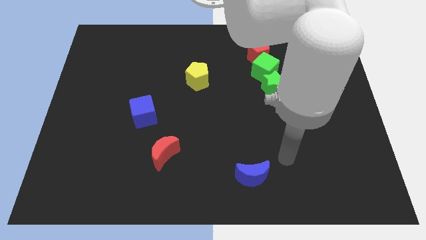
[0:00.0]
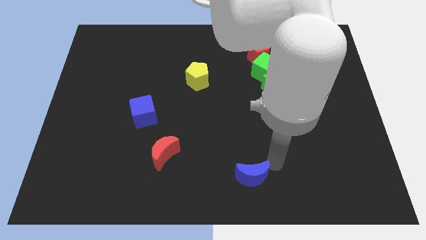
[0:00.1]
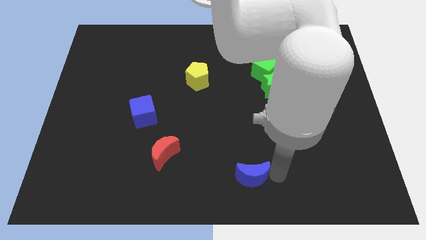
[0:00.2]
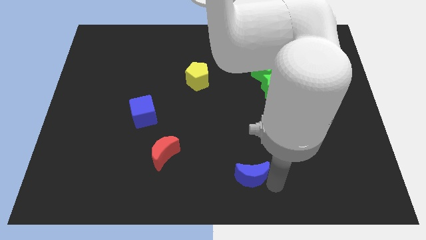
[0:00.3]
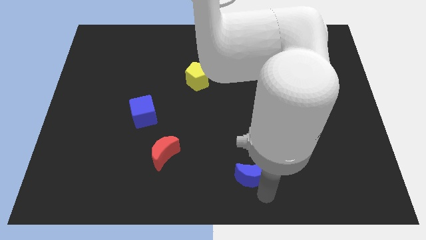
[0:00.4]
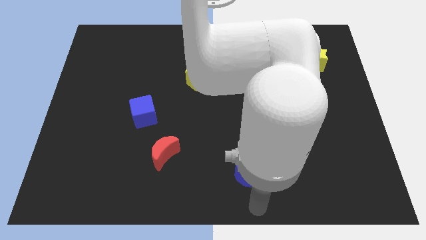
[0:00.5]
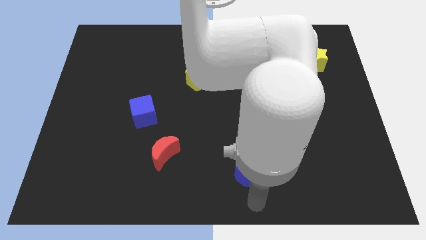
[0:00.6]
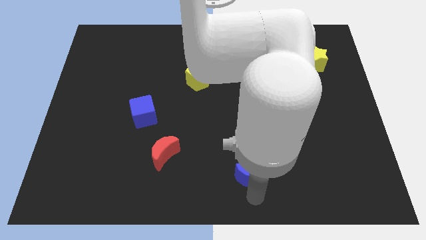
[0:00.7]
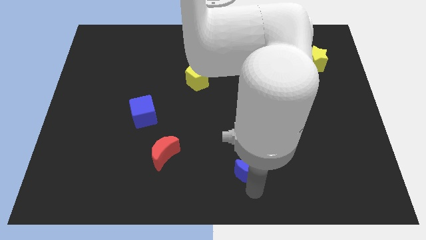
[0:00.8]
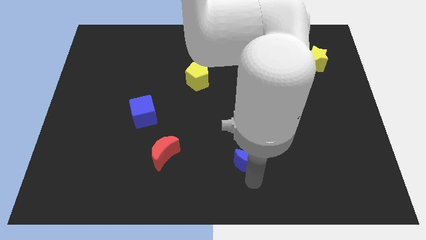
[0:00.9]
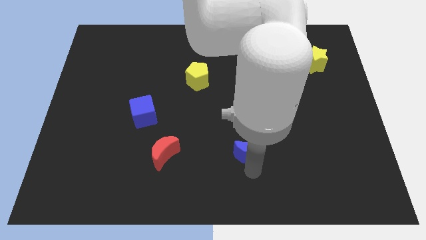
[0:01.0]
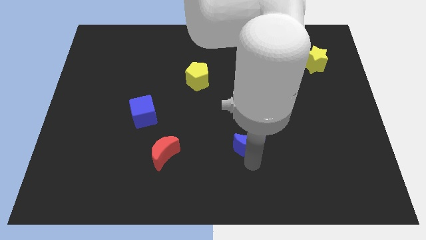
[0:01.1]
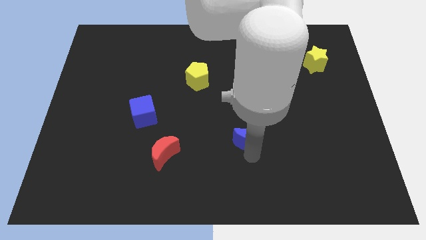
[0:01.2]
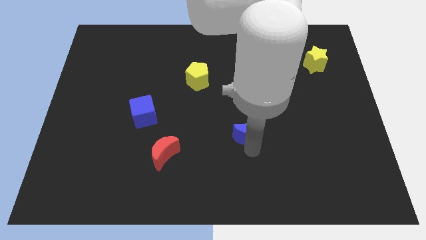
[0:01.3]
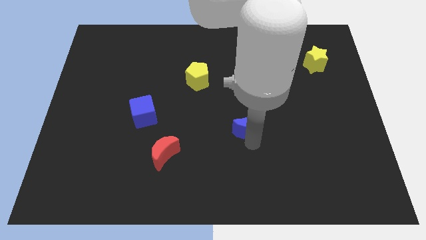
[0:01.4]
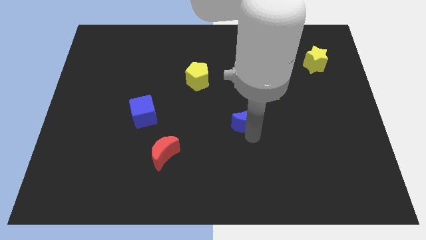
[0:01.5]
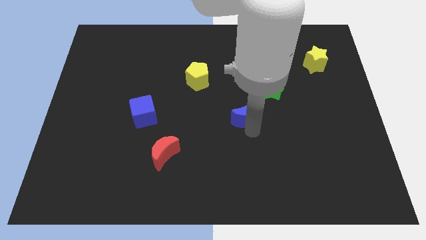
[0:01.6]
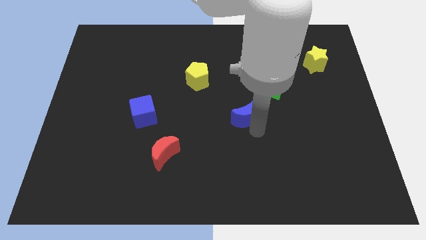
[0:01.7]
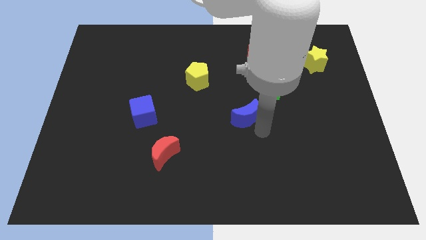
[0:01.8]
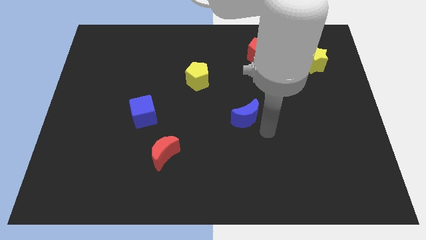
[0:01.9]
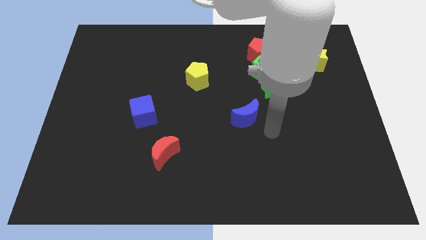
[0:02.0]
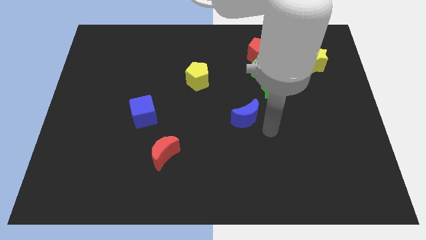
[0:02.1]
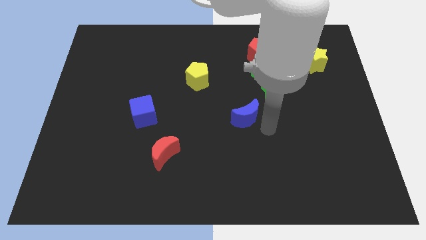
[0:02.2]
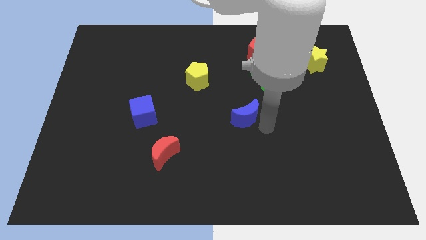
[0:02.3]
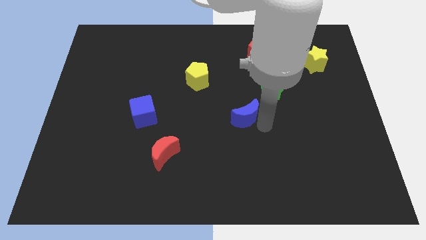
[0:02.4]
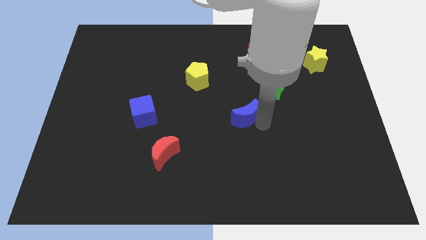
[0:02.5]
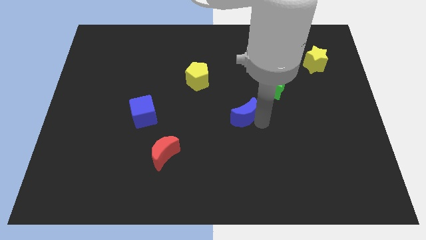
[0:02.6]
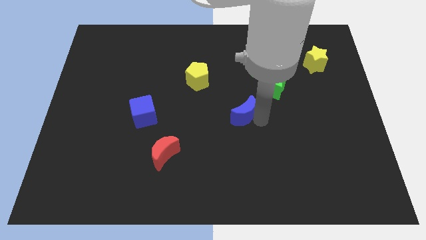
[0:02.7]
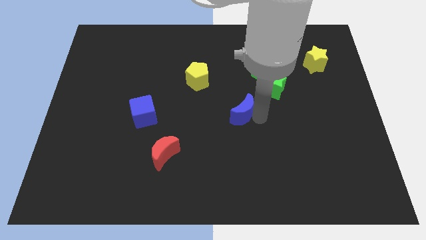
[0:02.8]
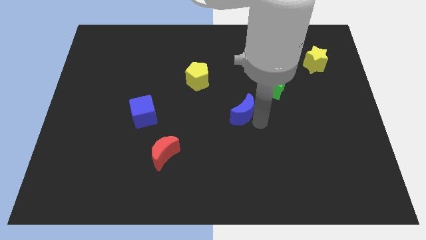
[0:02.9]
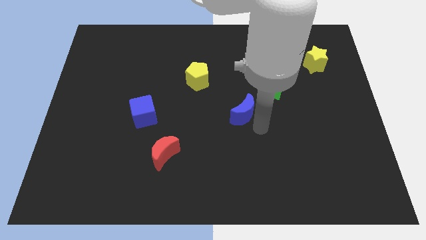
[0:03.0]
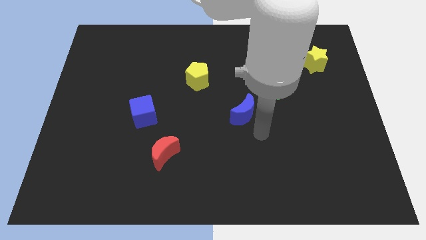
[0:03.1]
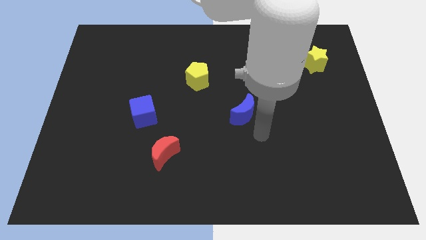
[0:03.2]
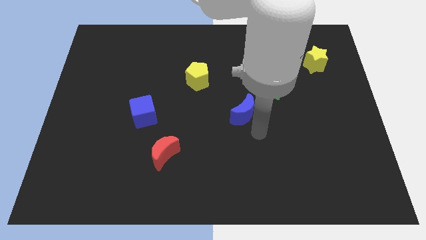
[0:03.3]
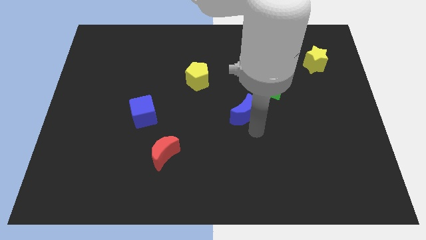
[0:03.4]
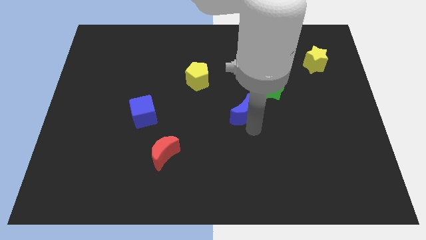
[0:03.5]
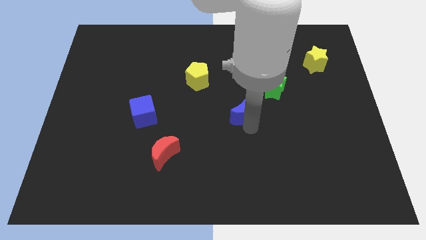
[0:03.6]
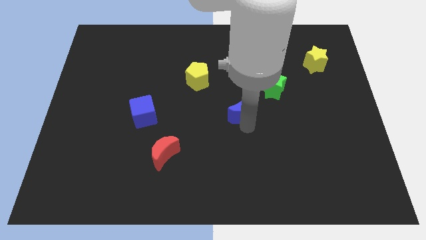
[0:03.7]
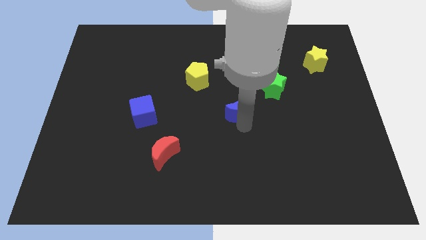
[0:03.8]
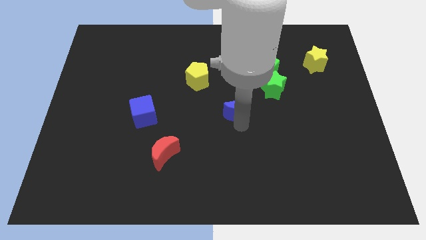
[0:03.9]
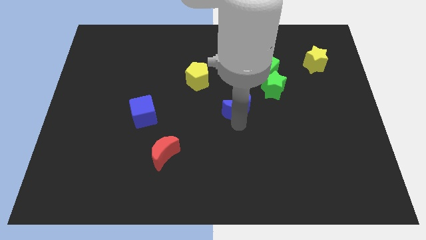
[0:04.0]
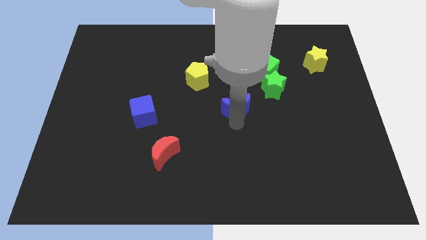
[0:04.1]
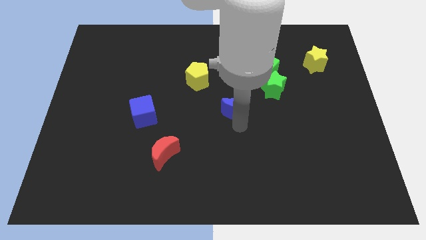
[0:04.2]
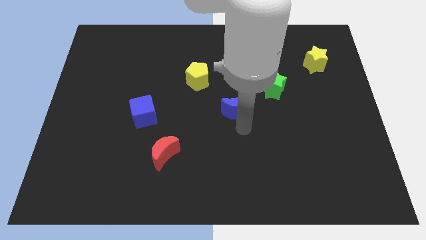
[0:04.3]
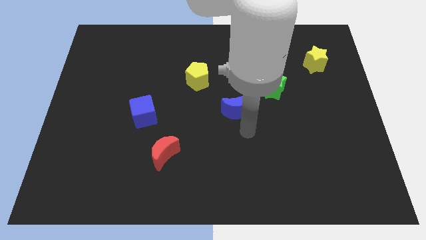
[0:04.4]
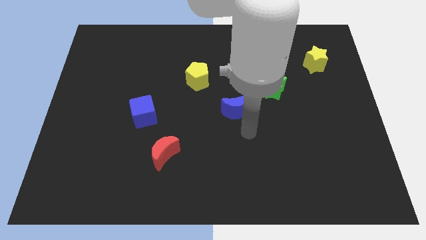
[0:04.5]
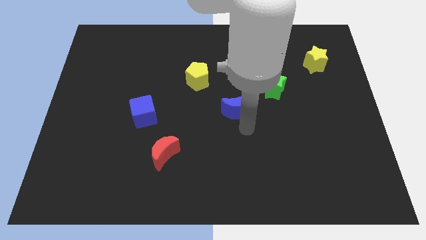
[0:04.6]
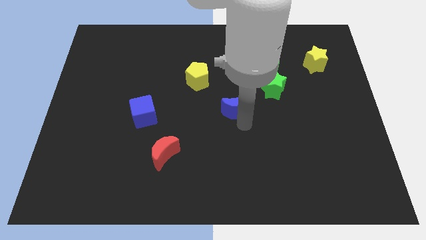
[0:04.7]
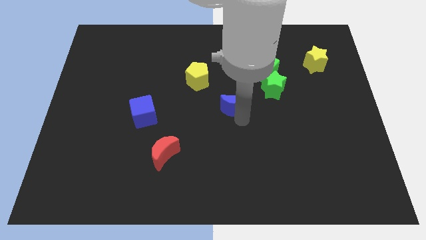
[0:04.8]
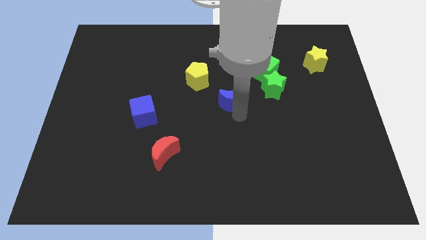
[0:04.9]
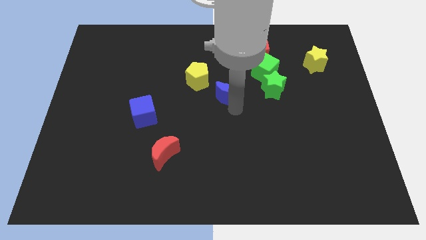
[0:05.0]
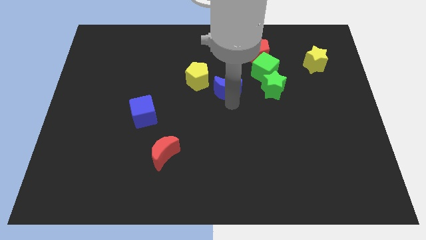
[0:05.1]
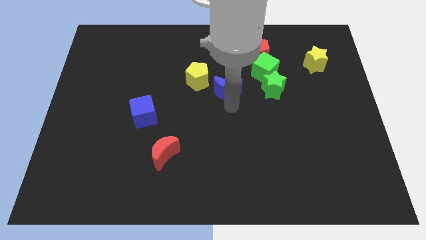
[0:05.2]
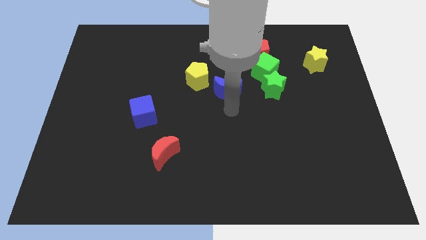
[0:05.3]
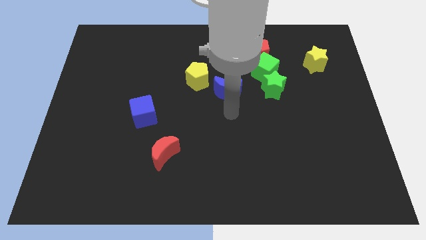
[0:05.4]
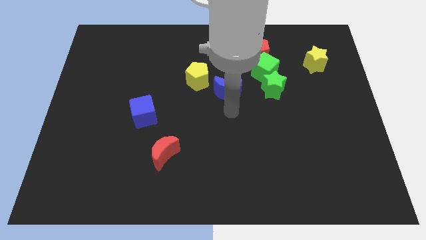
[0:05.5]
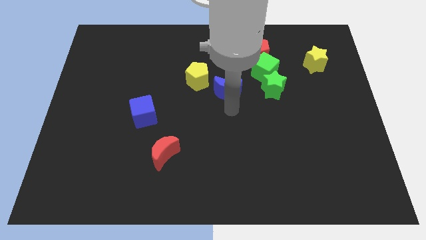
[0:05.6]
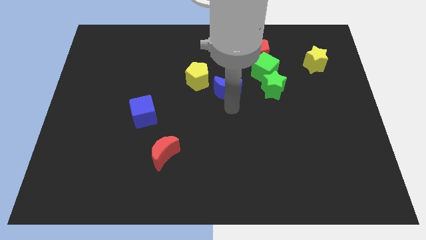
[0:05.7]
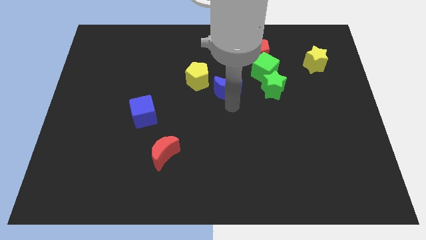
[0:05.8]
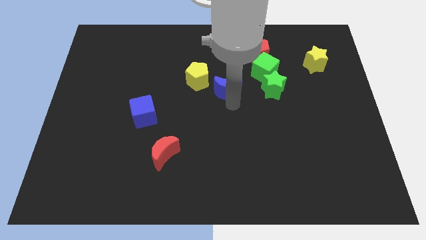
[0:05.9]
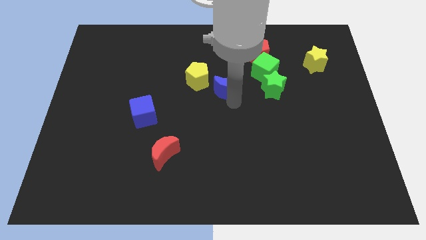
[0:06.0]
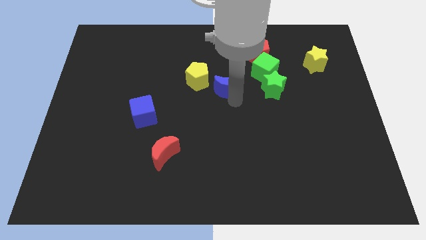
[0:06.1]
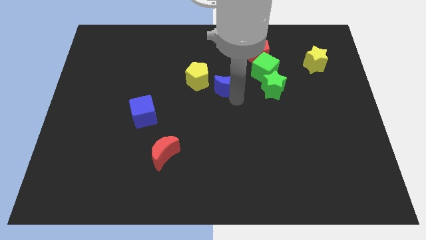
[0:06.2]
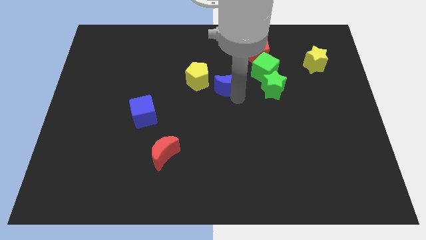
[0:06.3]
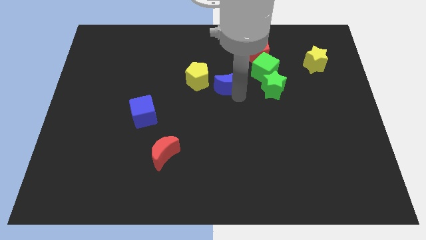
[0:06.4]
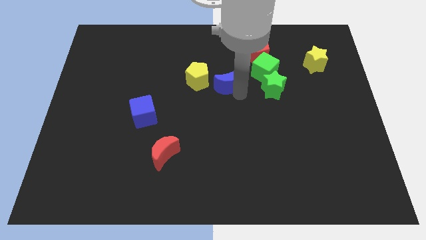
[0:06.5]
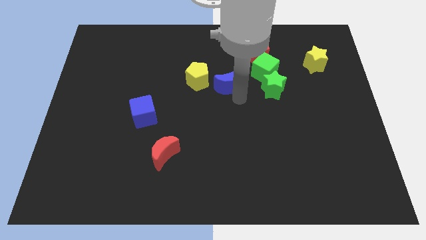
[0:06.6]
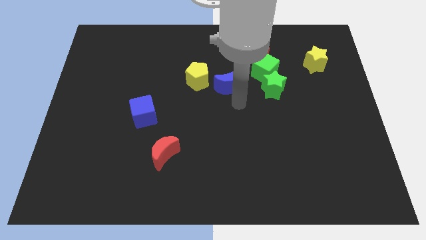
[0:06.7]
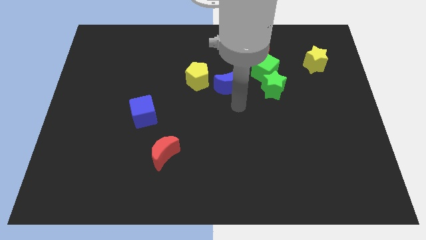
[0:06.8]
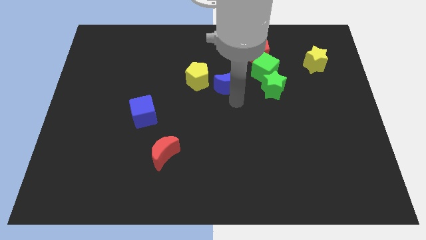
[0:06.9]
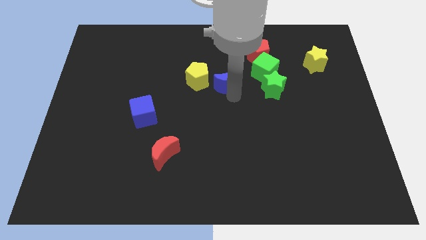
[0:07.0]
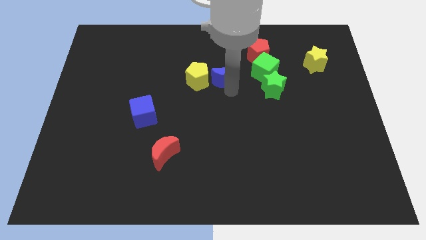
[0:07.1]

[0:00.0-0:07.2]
slide the blue moon to the top right side of the yellow pentagon
